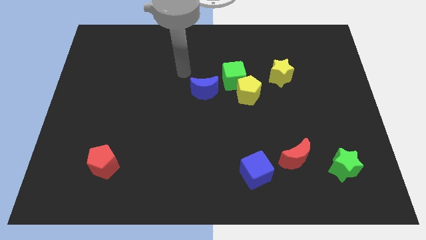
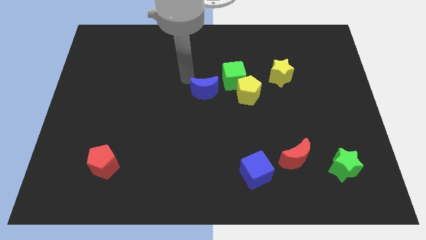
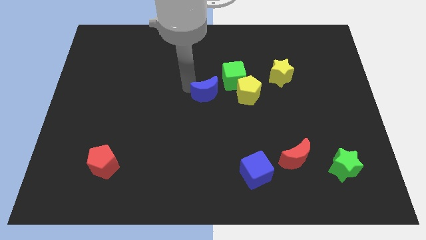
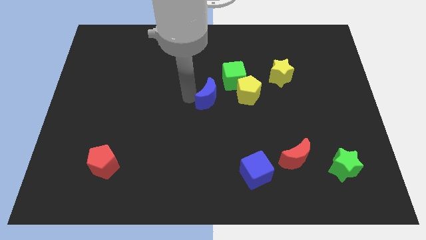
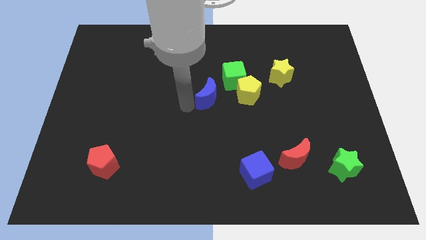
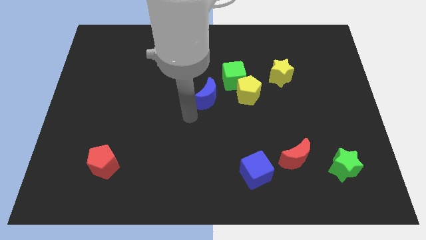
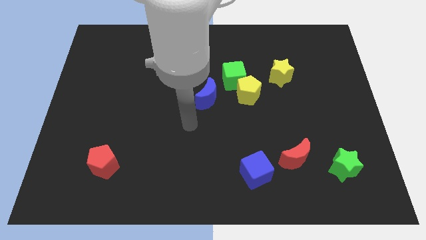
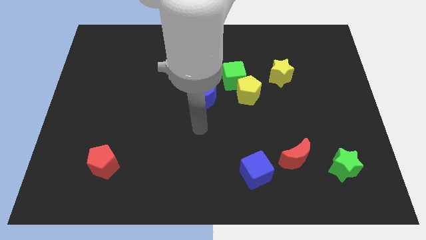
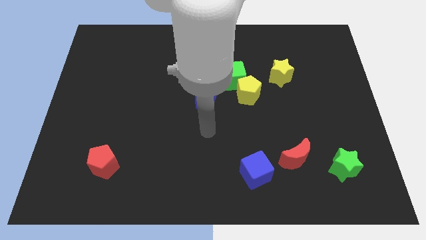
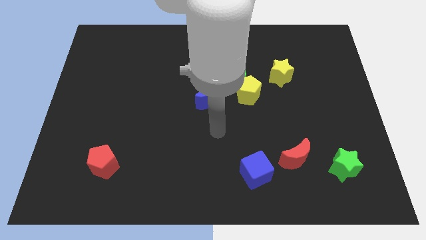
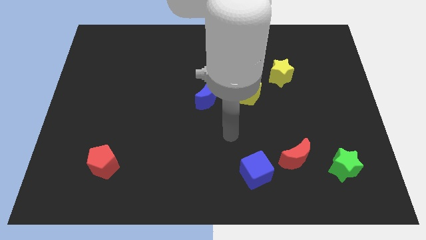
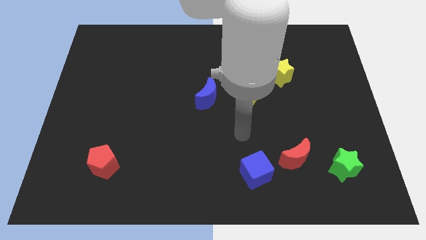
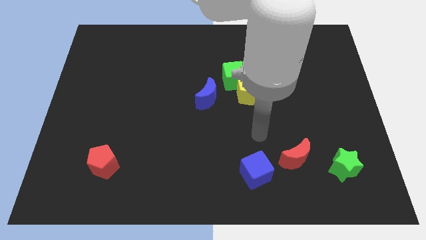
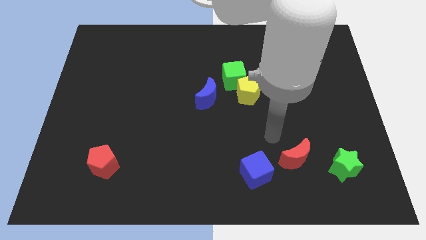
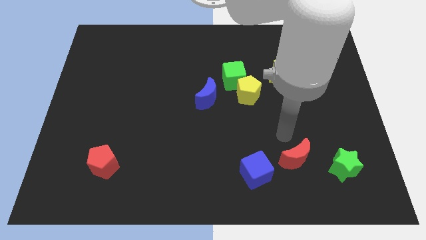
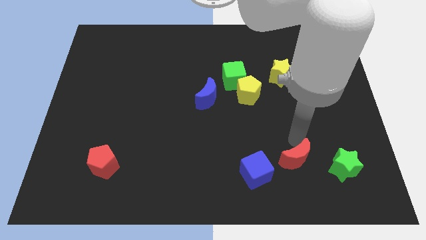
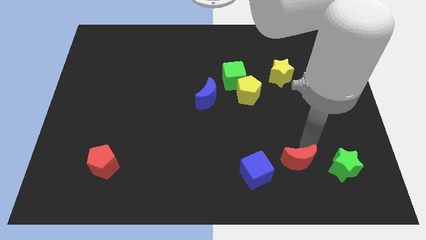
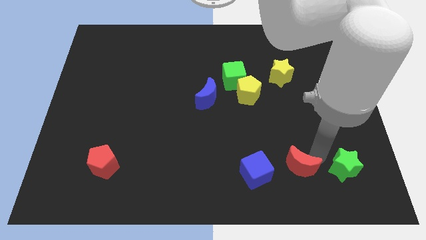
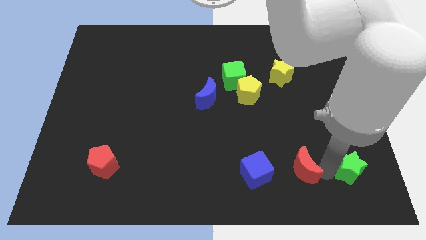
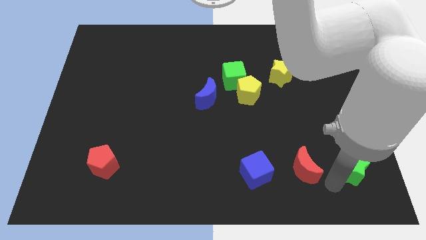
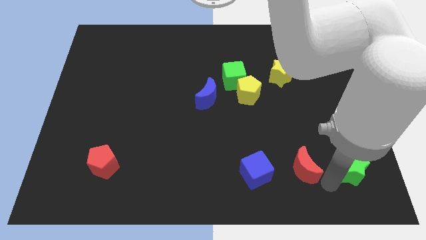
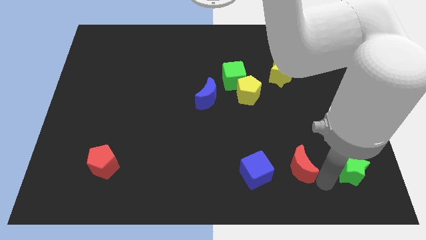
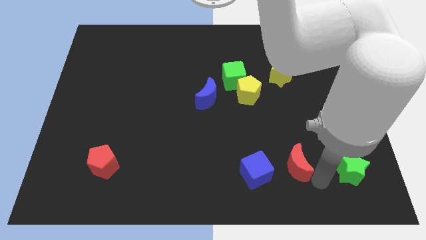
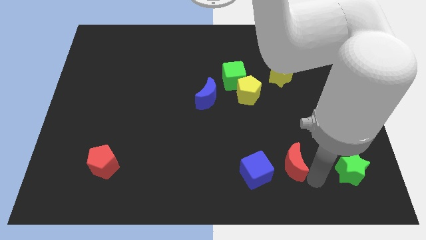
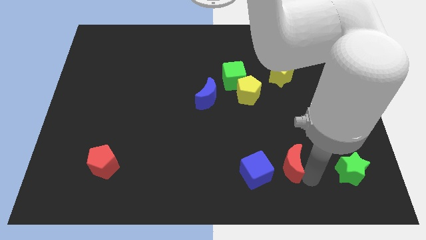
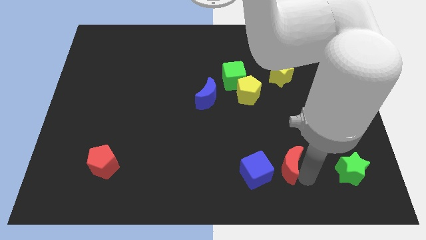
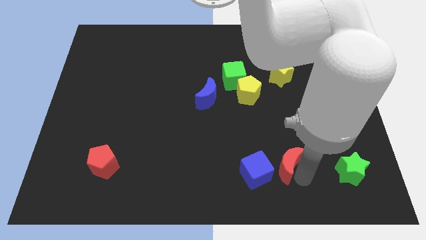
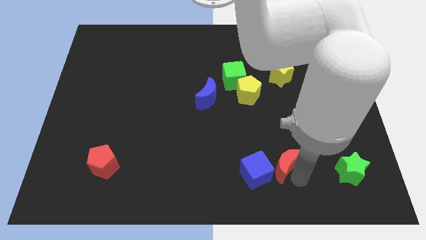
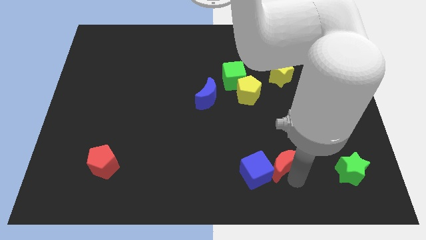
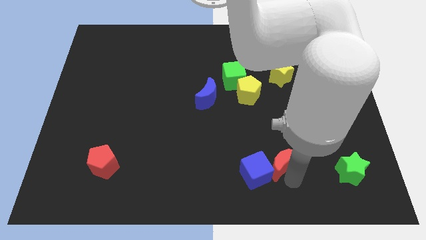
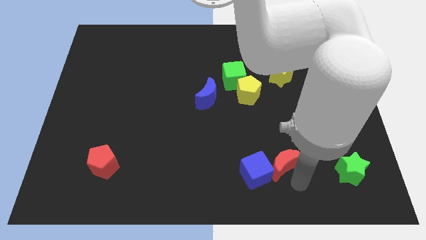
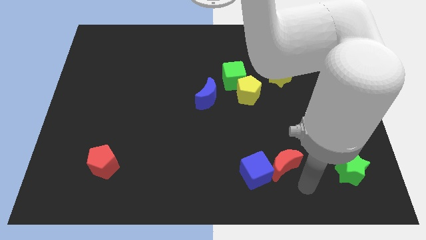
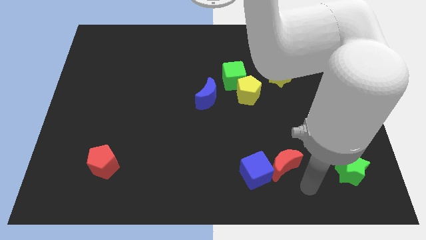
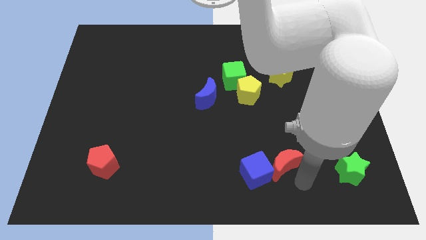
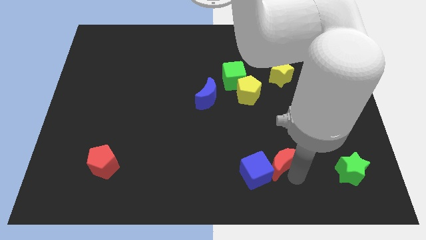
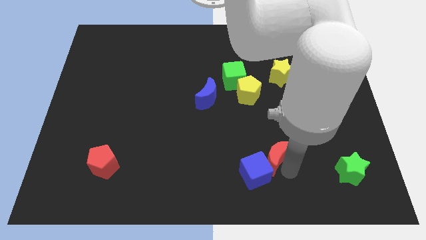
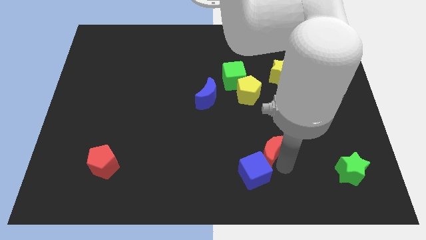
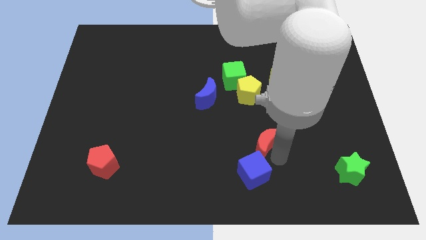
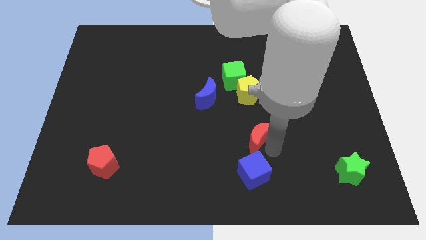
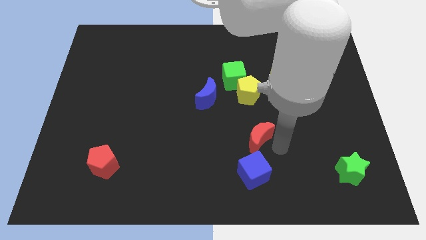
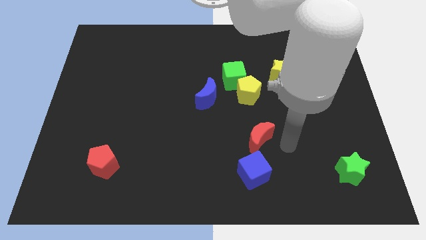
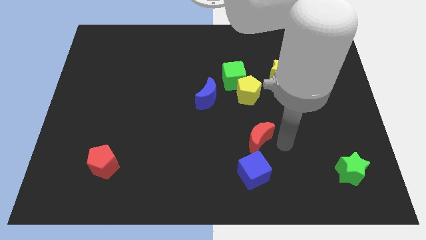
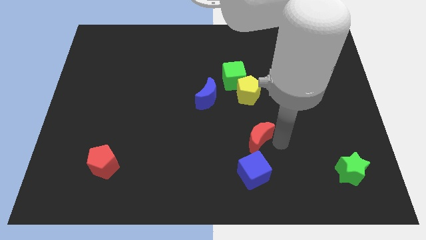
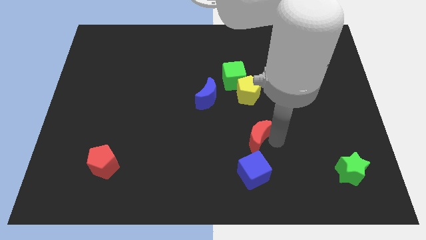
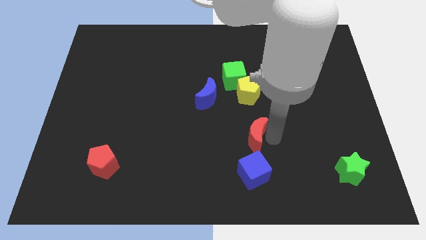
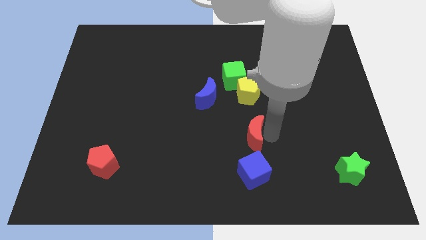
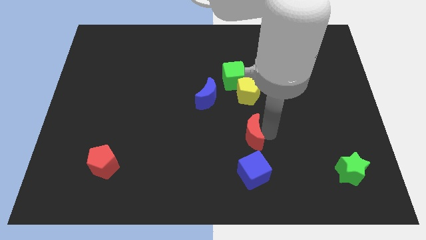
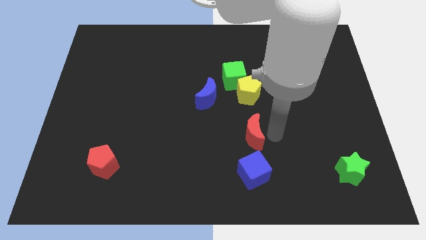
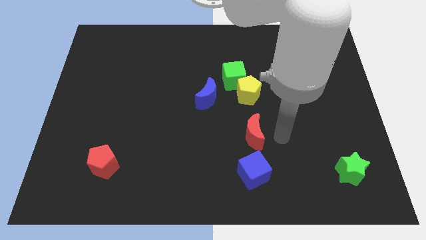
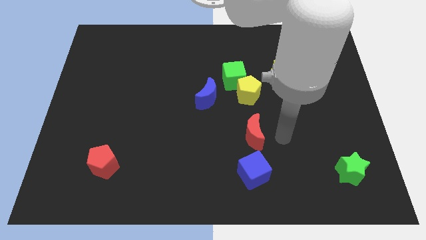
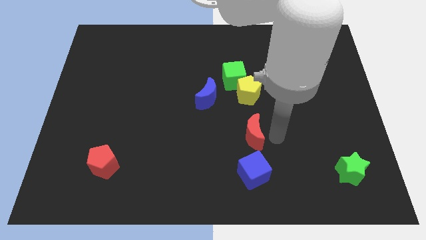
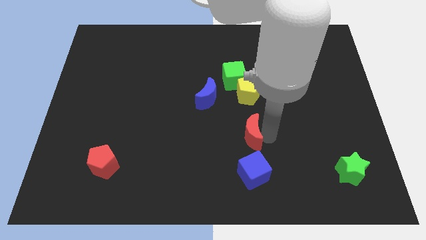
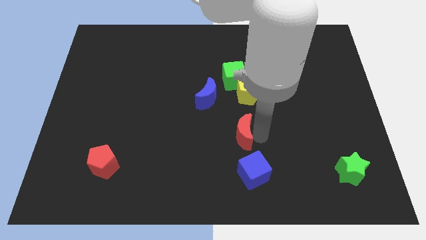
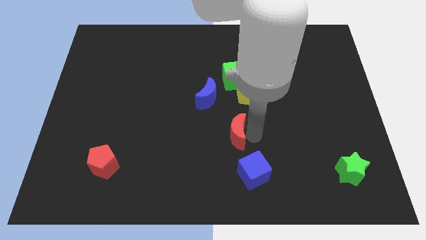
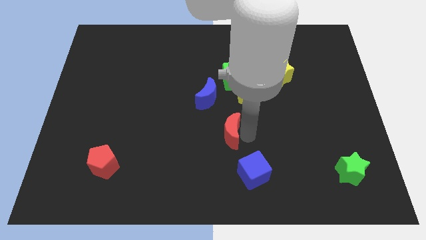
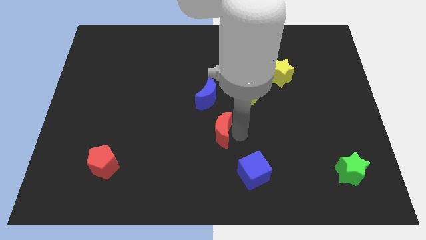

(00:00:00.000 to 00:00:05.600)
push the red moon to the bottom of the blue moon

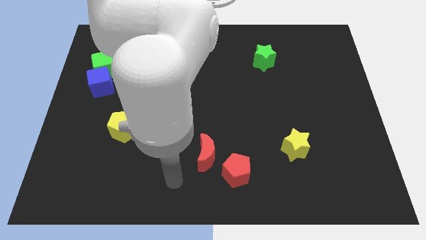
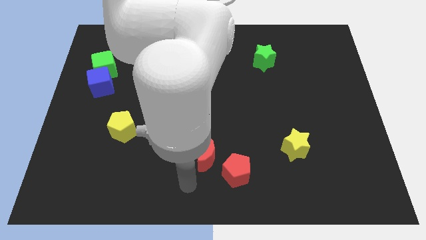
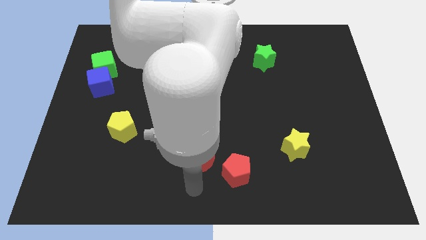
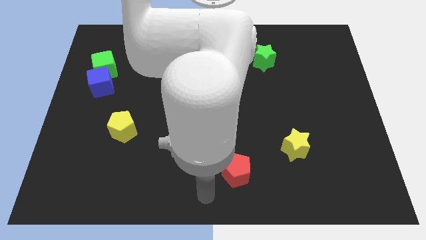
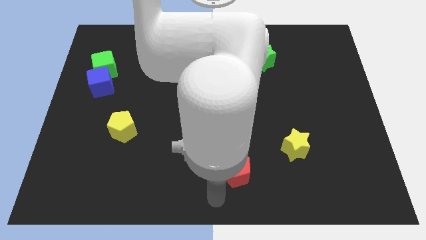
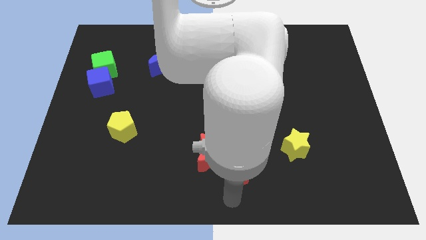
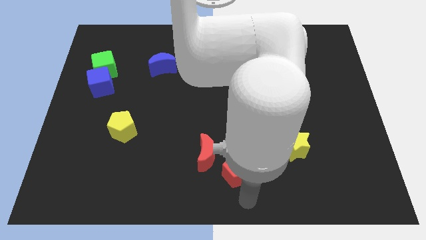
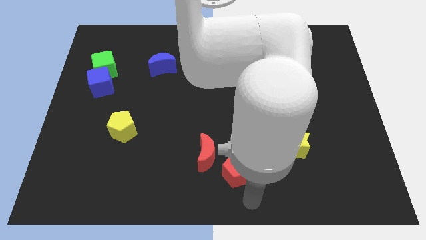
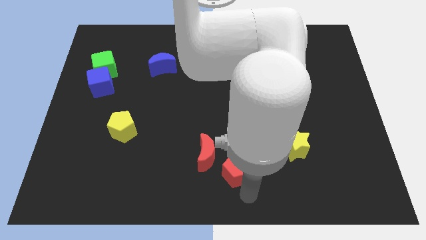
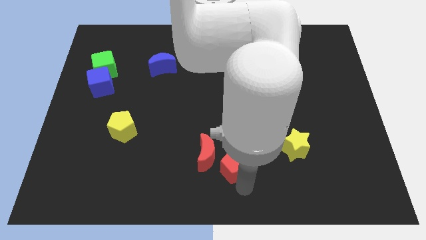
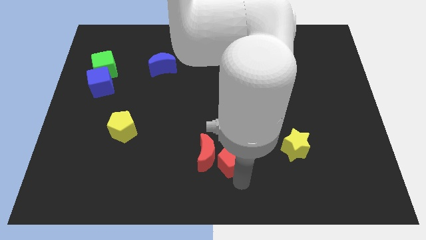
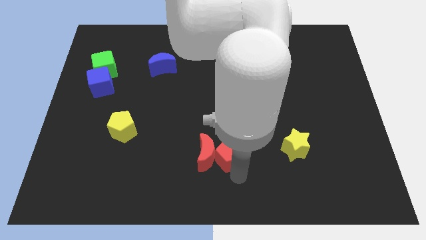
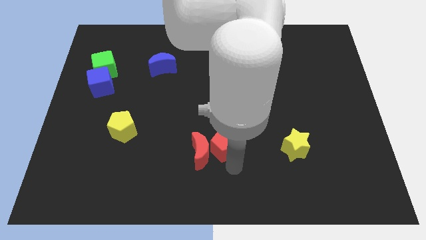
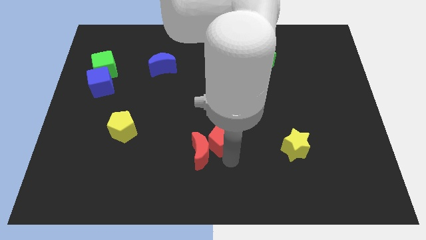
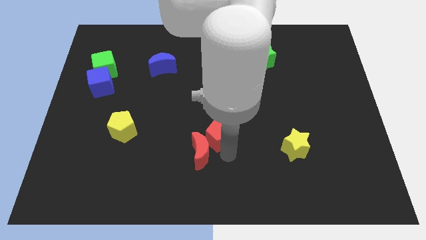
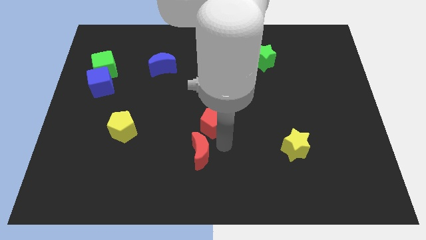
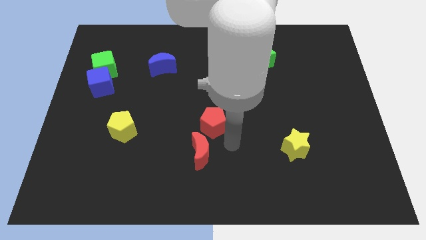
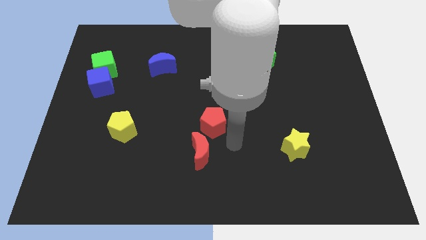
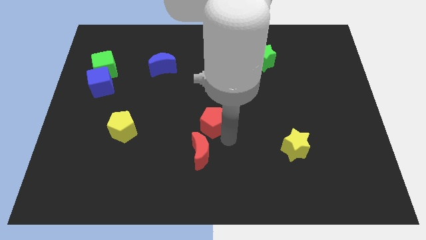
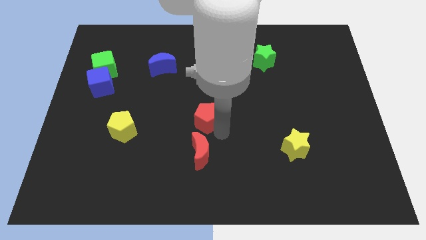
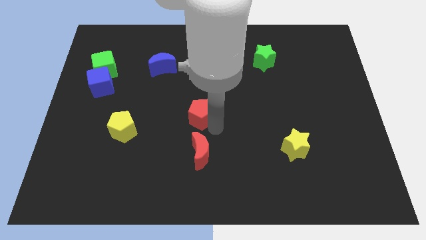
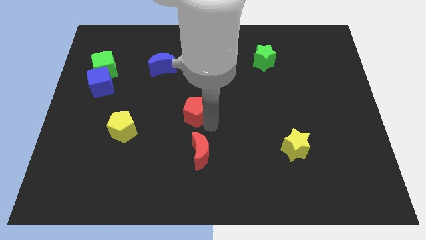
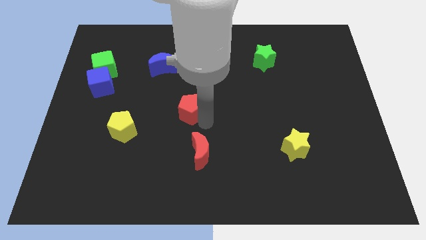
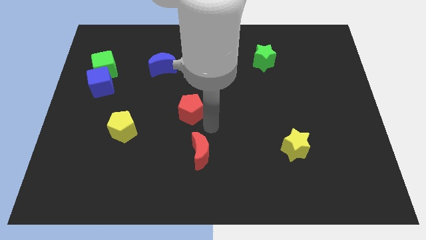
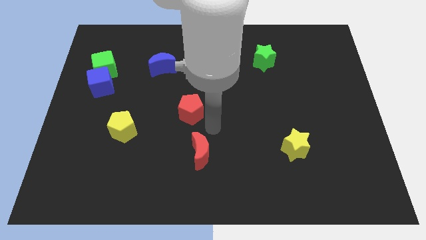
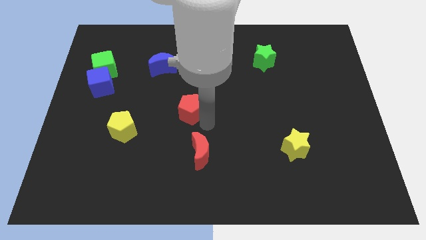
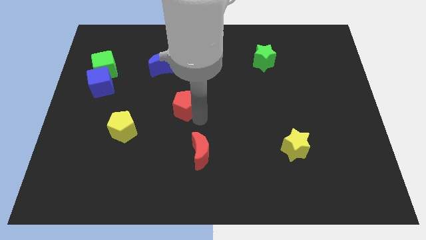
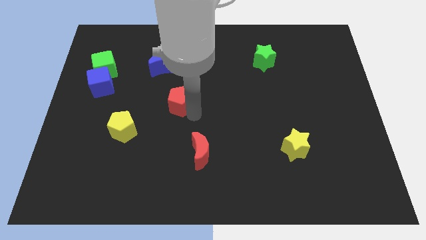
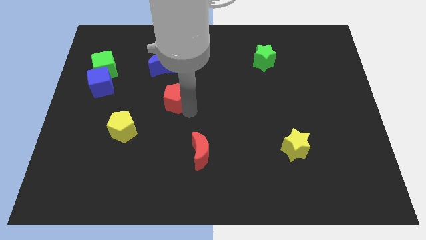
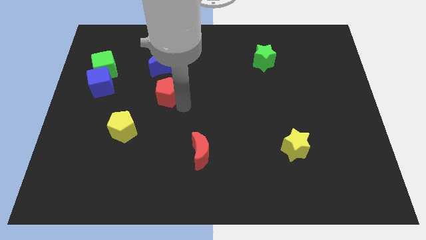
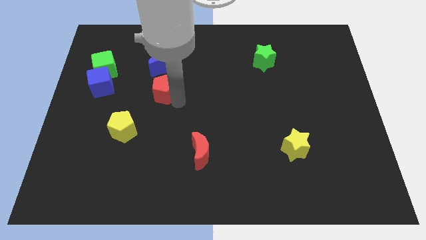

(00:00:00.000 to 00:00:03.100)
put the red pentagon just right of the blue cube
